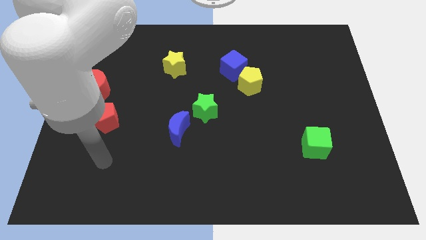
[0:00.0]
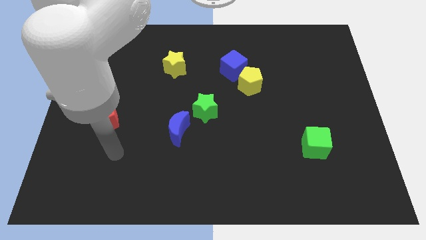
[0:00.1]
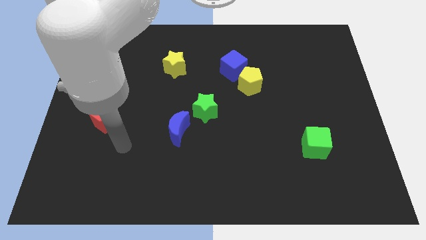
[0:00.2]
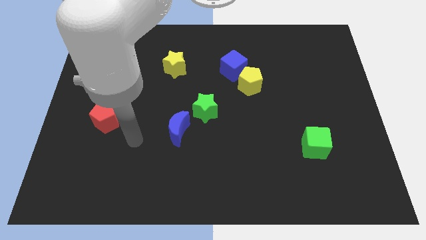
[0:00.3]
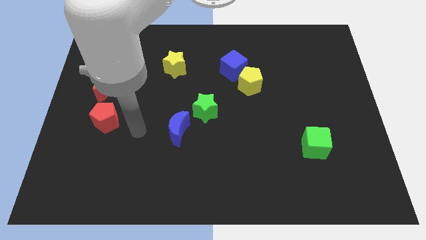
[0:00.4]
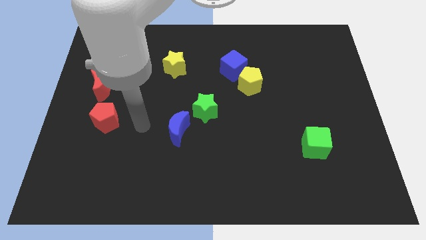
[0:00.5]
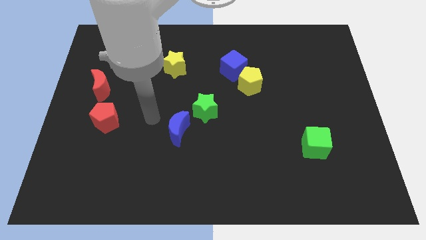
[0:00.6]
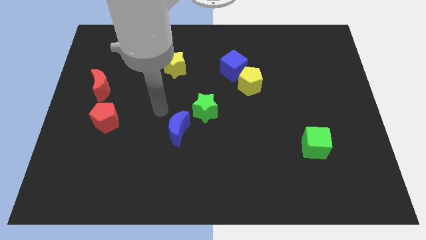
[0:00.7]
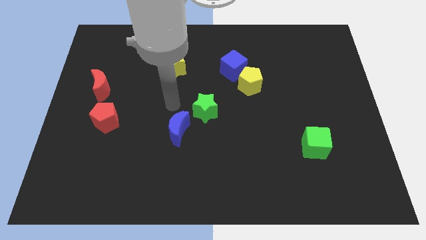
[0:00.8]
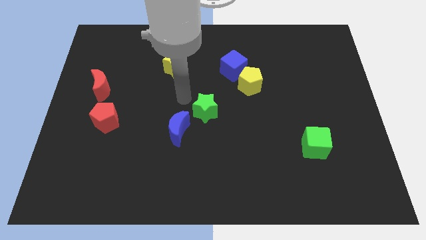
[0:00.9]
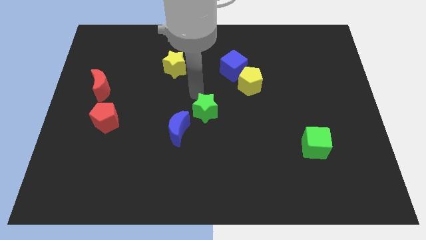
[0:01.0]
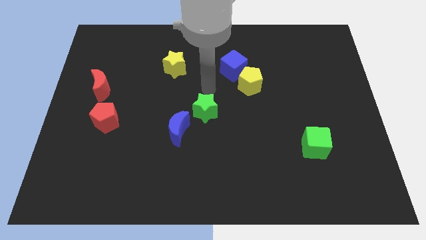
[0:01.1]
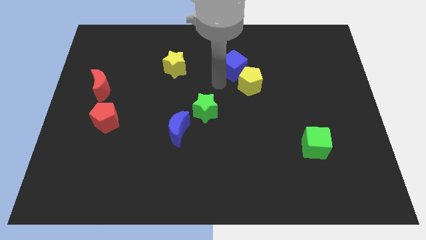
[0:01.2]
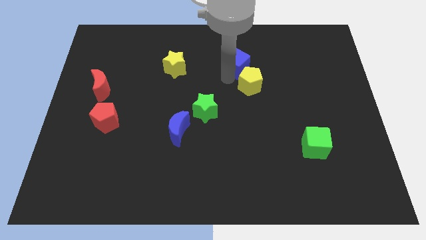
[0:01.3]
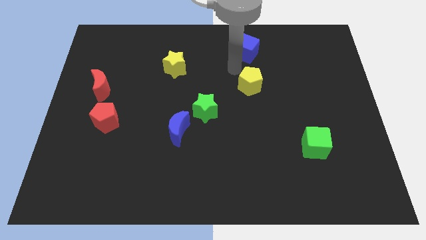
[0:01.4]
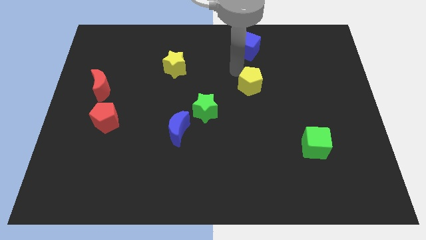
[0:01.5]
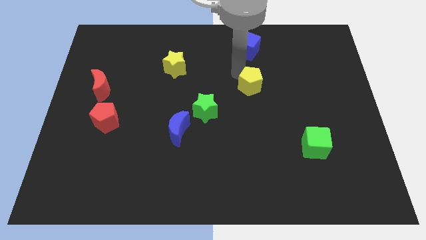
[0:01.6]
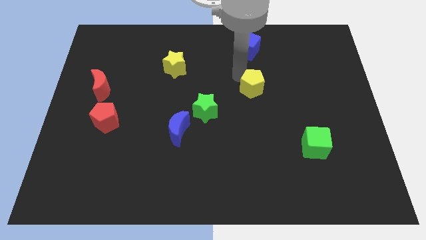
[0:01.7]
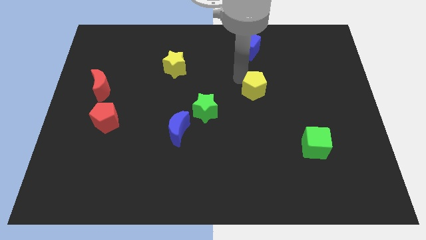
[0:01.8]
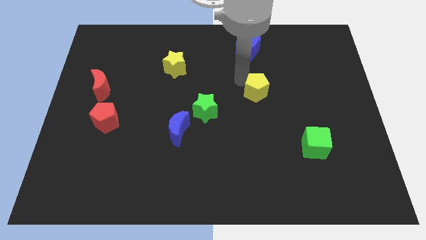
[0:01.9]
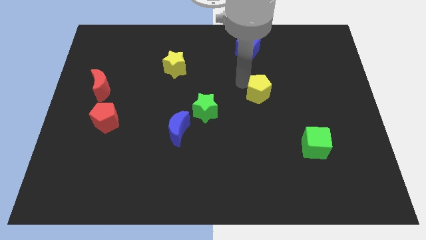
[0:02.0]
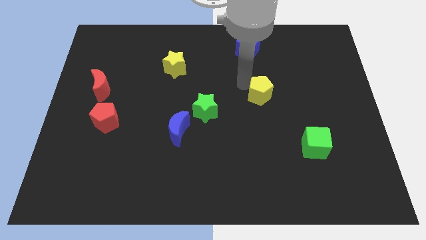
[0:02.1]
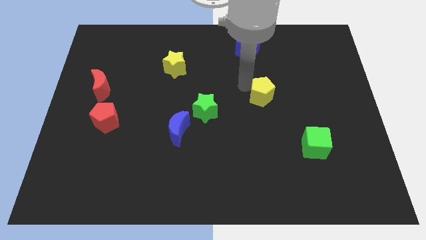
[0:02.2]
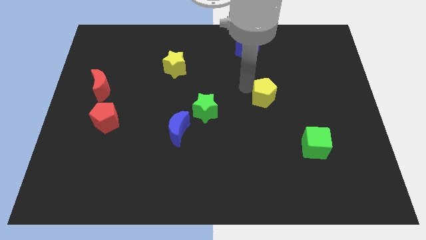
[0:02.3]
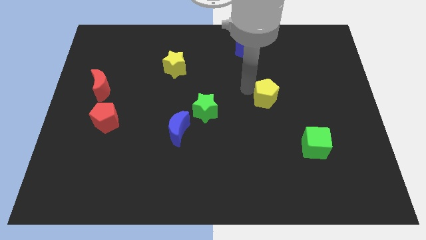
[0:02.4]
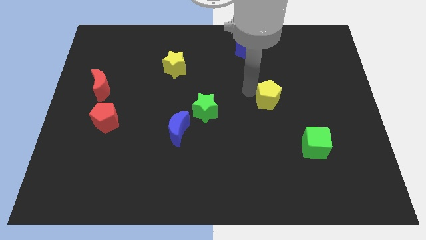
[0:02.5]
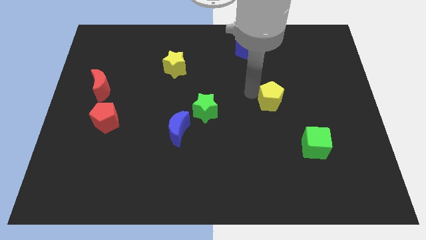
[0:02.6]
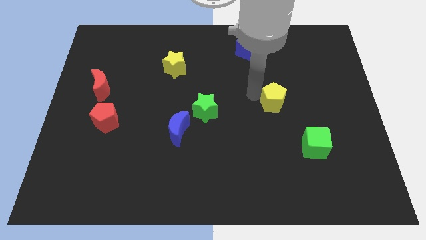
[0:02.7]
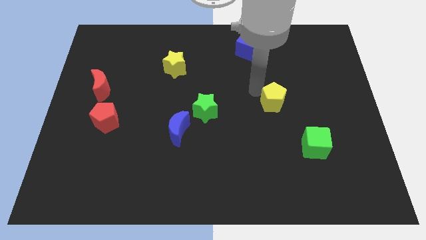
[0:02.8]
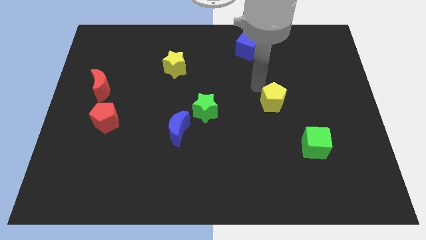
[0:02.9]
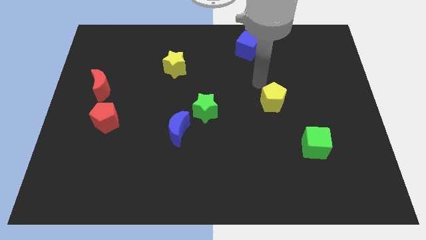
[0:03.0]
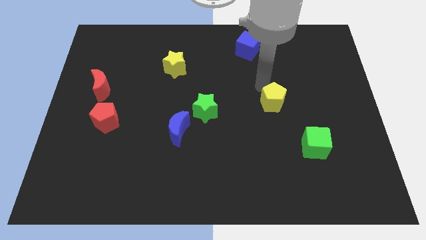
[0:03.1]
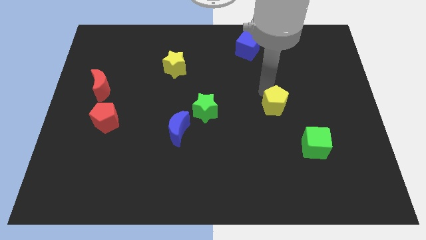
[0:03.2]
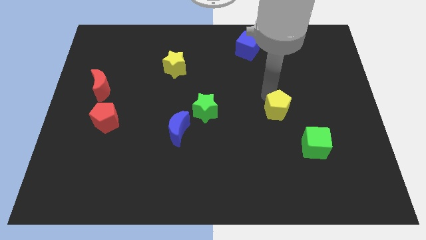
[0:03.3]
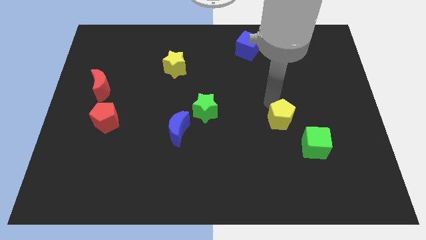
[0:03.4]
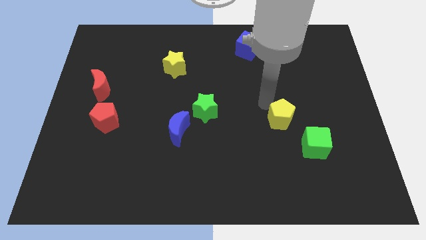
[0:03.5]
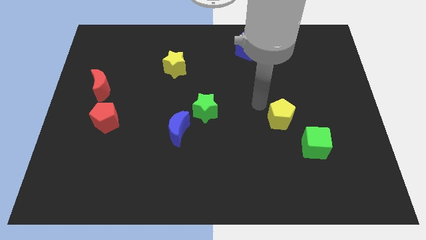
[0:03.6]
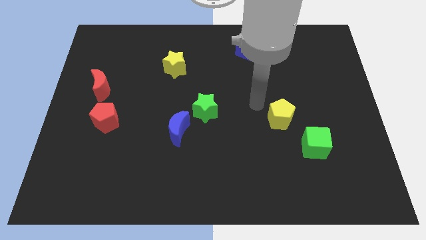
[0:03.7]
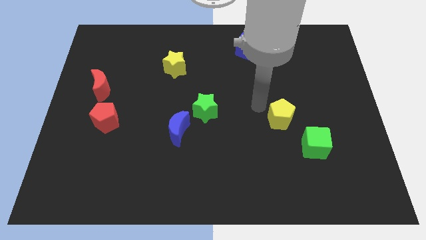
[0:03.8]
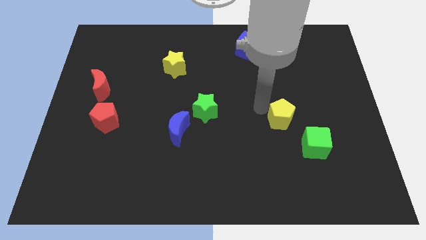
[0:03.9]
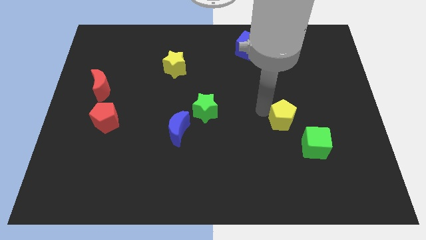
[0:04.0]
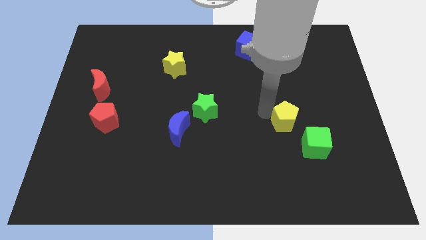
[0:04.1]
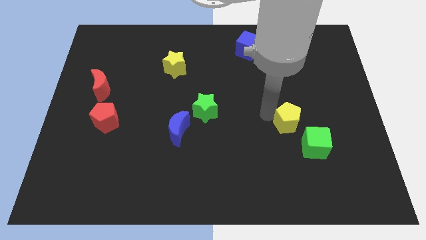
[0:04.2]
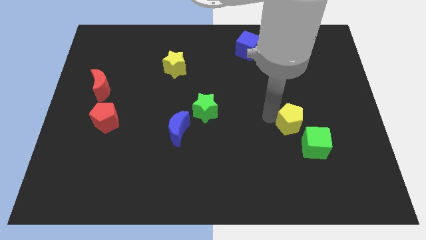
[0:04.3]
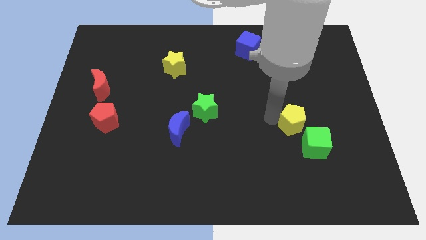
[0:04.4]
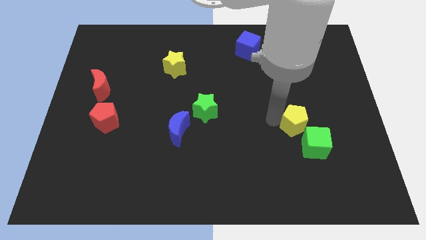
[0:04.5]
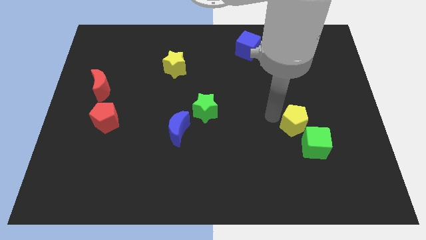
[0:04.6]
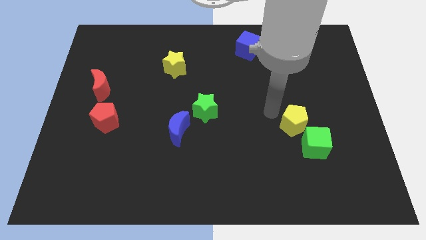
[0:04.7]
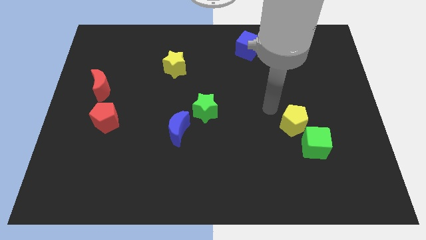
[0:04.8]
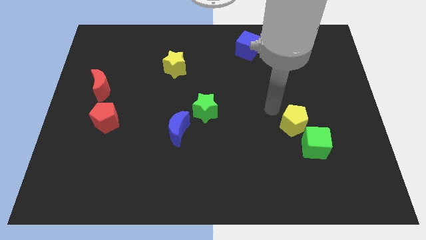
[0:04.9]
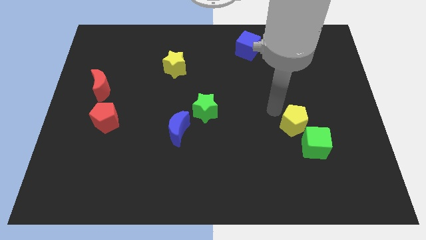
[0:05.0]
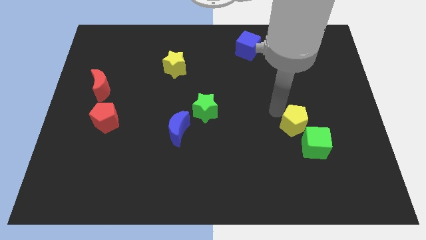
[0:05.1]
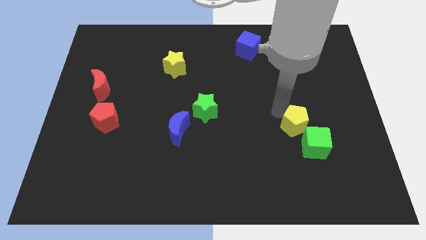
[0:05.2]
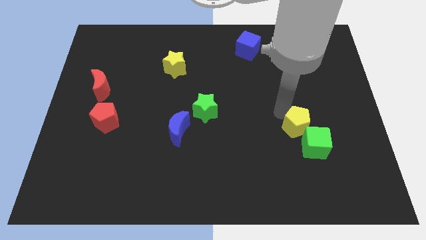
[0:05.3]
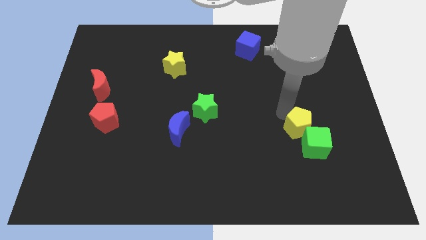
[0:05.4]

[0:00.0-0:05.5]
slide the yellow pentagon close to the green cube

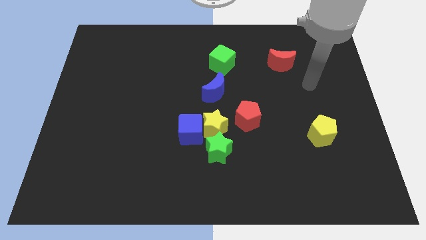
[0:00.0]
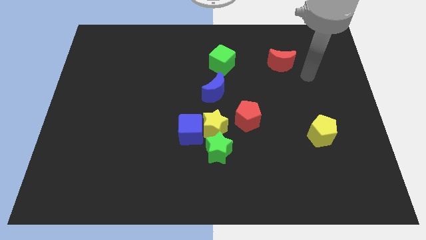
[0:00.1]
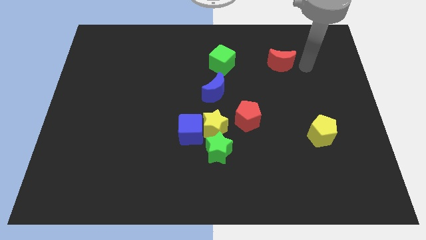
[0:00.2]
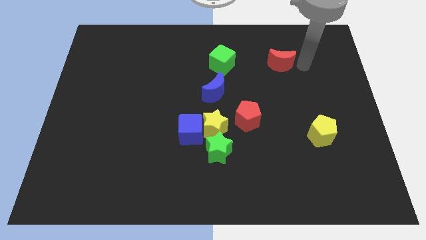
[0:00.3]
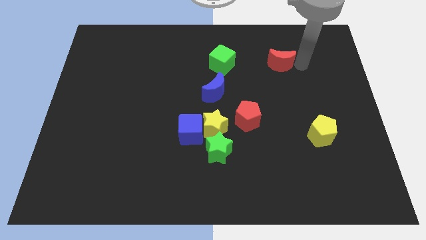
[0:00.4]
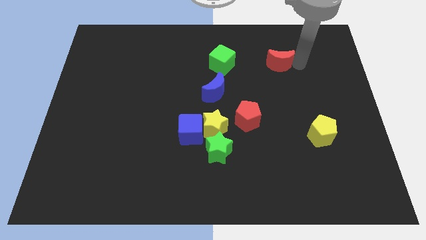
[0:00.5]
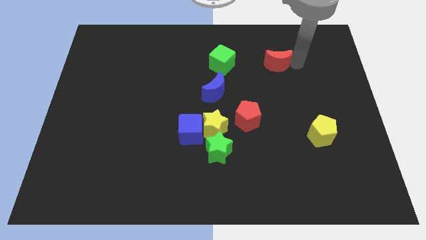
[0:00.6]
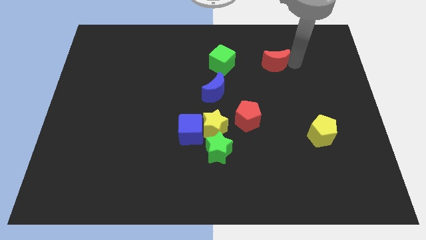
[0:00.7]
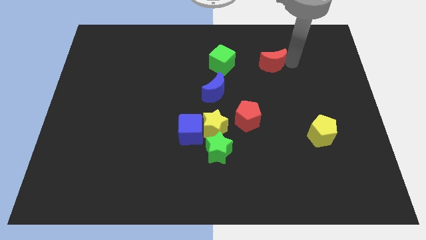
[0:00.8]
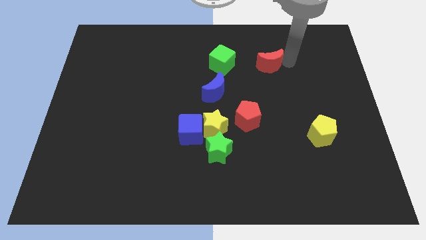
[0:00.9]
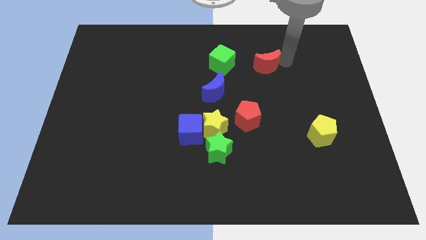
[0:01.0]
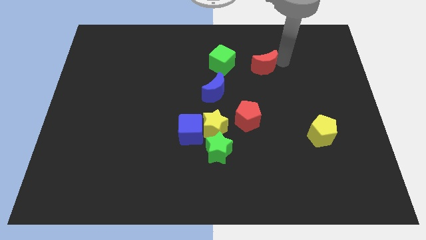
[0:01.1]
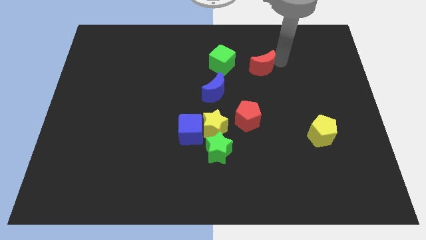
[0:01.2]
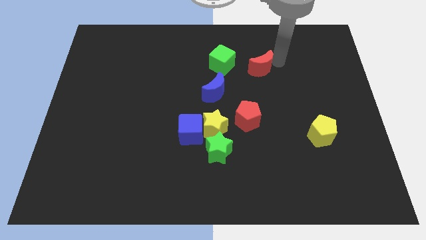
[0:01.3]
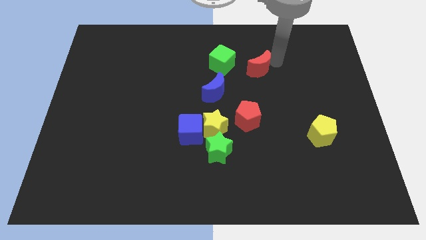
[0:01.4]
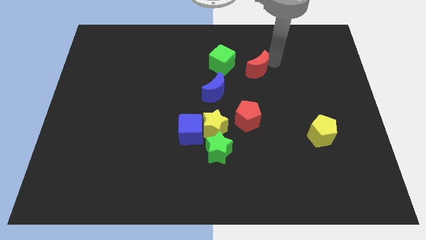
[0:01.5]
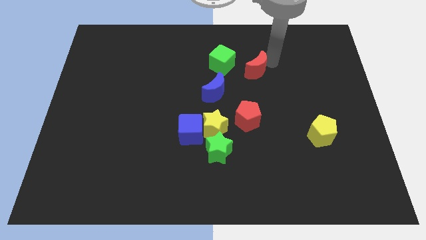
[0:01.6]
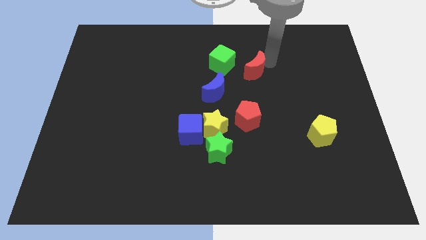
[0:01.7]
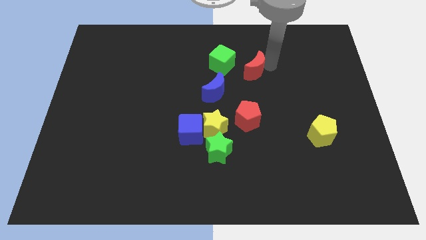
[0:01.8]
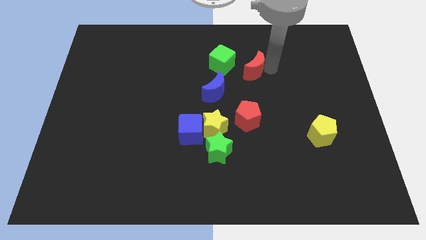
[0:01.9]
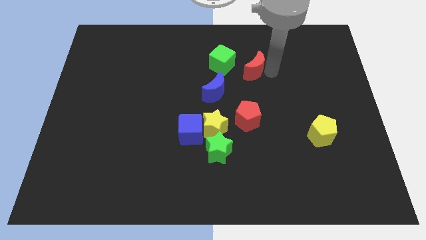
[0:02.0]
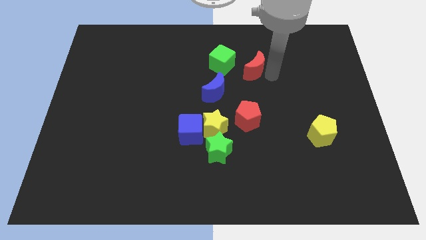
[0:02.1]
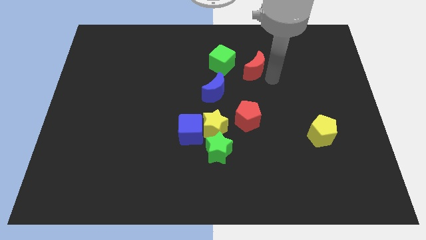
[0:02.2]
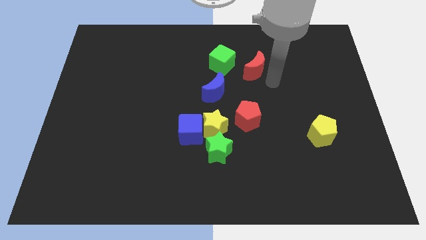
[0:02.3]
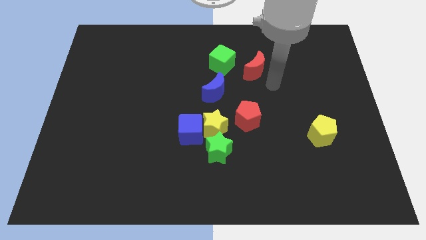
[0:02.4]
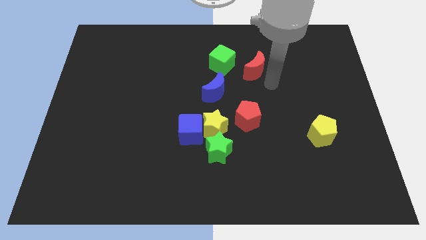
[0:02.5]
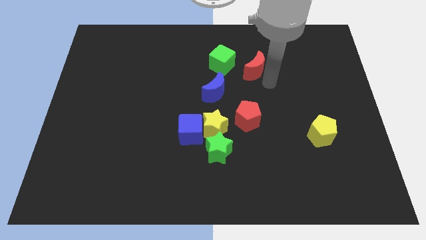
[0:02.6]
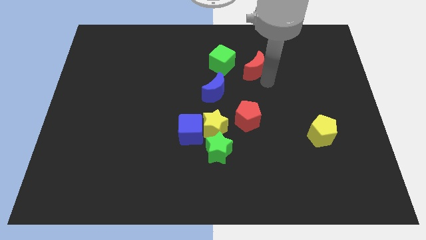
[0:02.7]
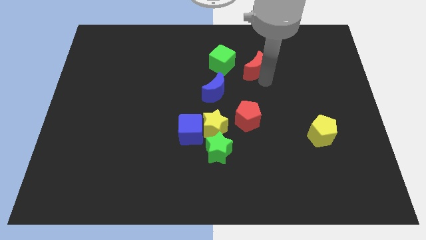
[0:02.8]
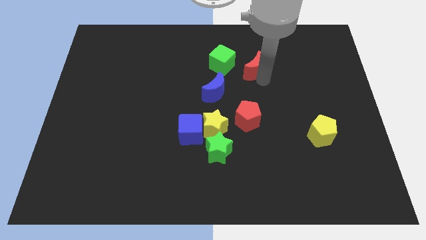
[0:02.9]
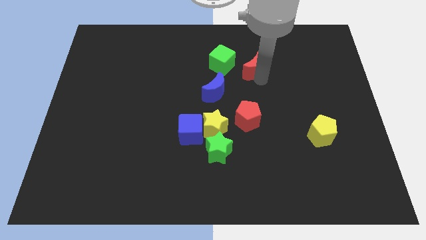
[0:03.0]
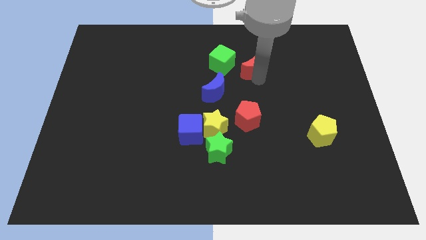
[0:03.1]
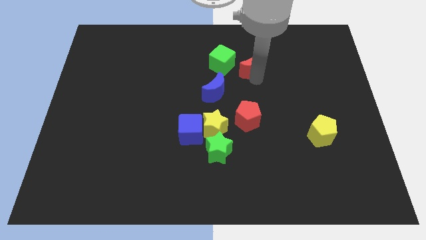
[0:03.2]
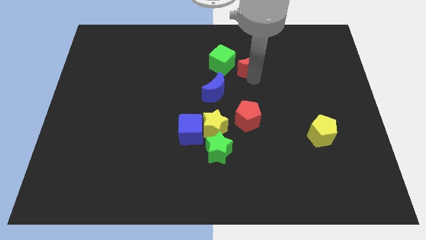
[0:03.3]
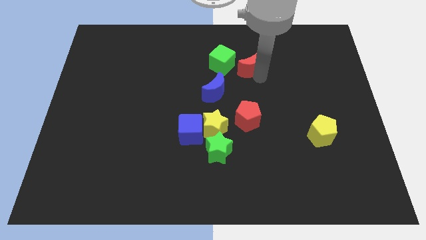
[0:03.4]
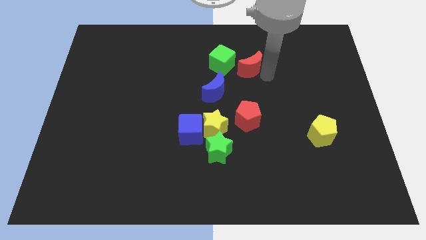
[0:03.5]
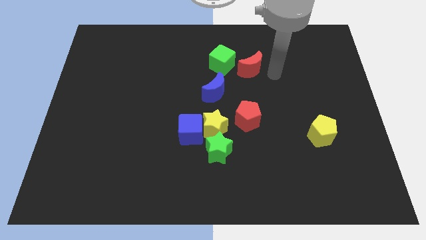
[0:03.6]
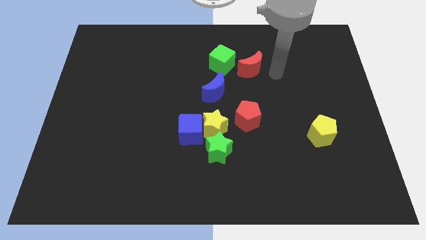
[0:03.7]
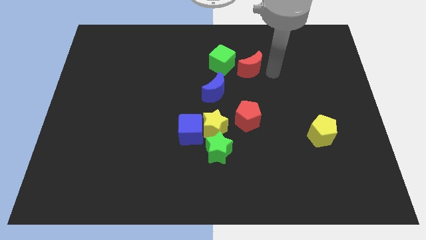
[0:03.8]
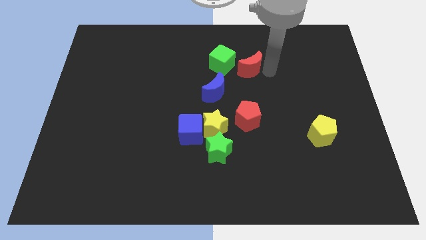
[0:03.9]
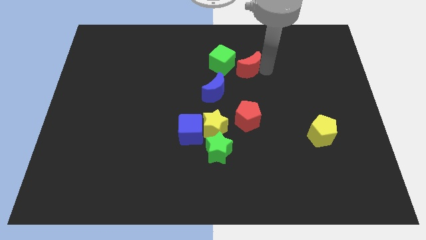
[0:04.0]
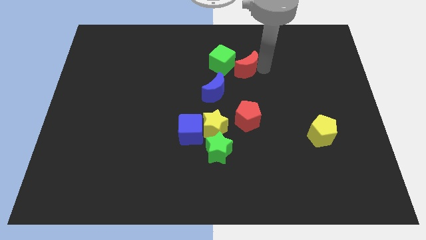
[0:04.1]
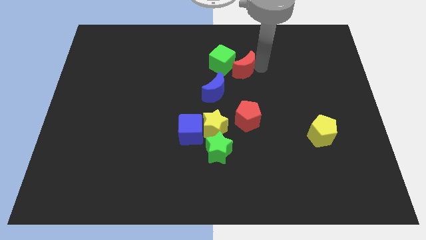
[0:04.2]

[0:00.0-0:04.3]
push the red moon towards the green cube
